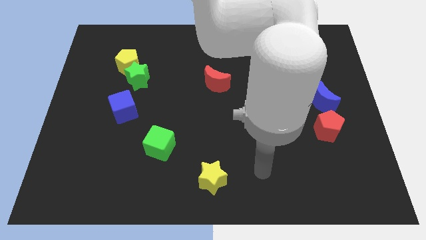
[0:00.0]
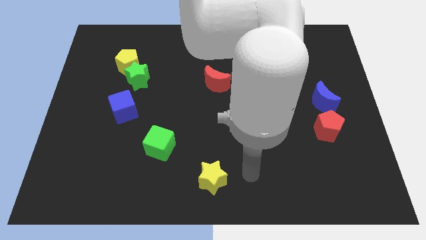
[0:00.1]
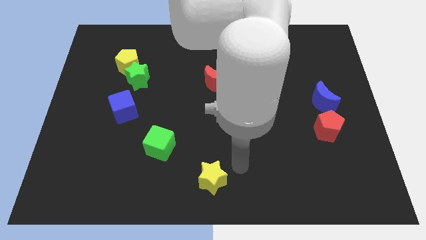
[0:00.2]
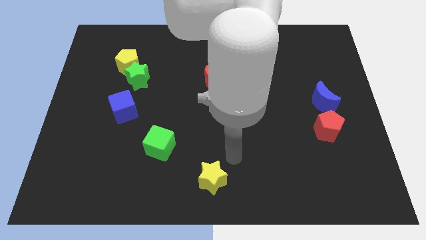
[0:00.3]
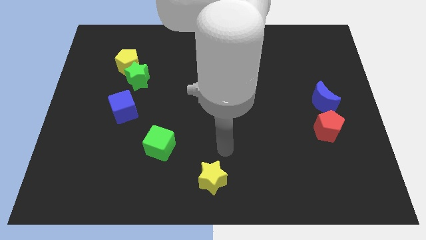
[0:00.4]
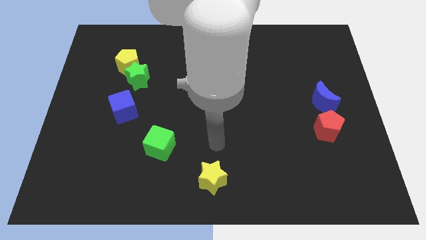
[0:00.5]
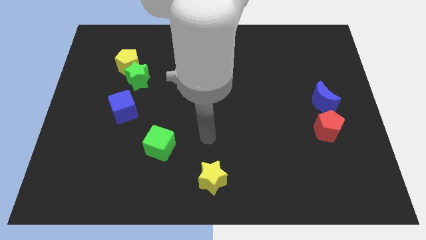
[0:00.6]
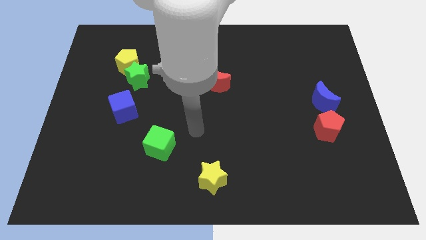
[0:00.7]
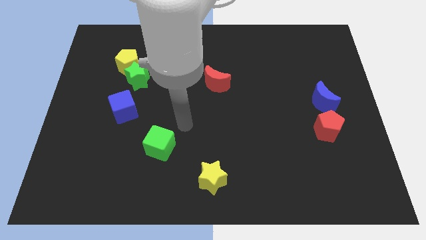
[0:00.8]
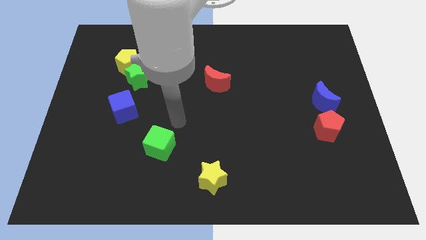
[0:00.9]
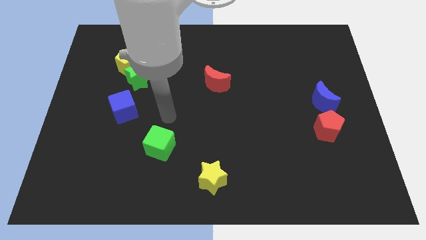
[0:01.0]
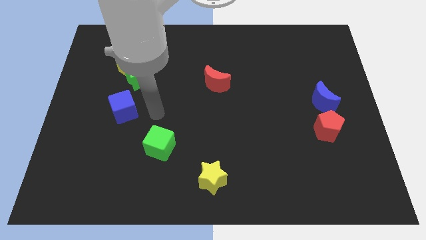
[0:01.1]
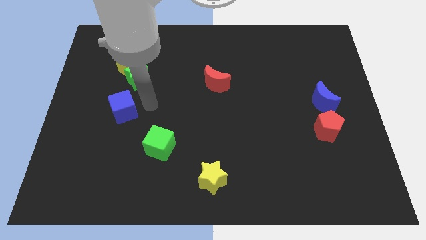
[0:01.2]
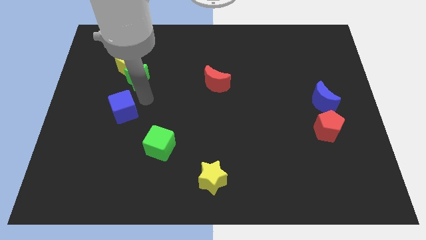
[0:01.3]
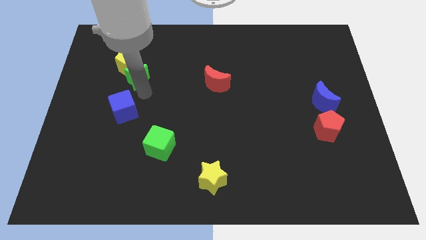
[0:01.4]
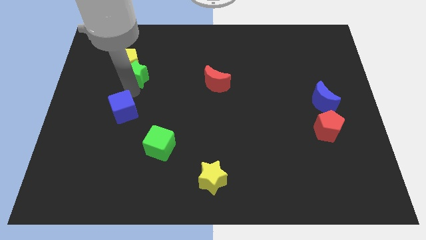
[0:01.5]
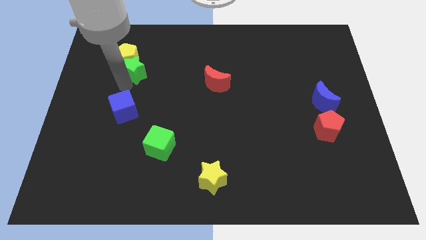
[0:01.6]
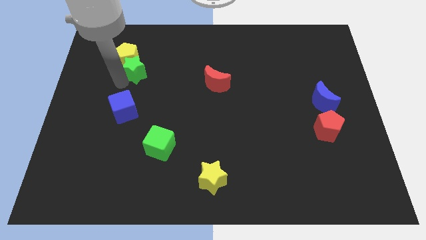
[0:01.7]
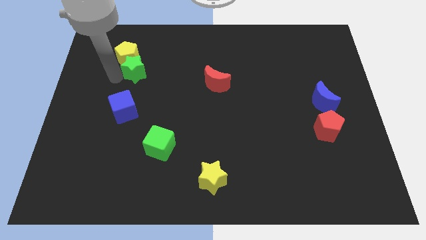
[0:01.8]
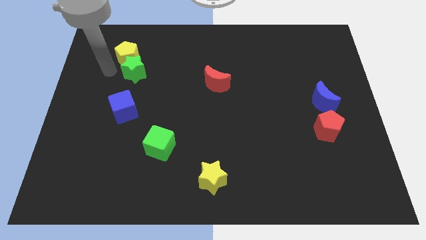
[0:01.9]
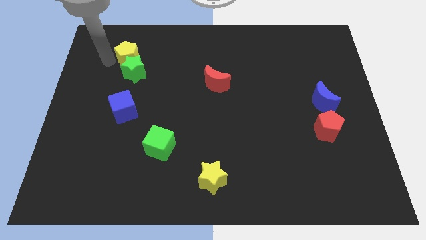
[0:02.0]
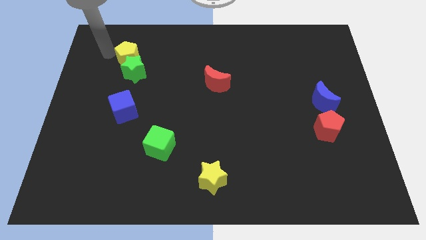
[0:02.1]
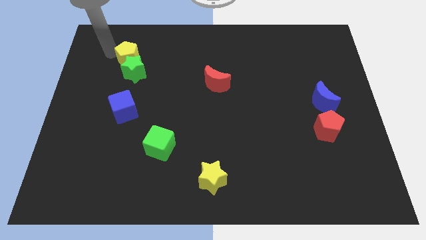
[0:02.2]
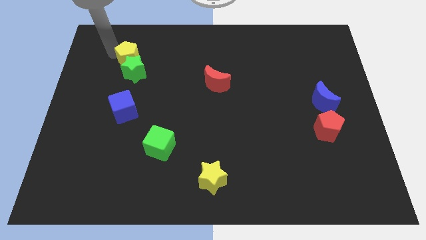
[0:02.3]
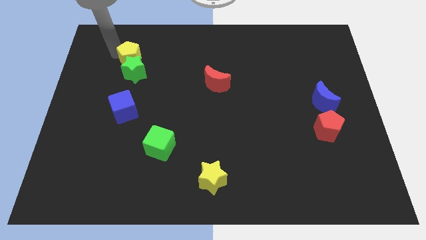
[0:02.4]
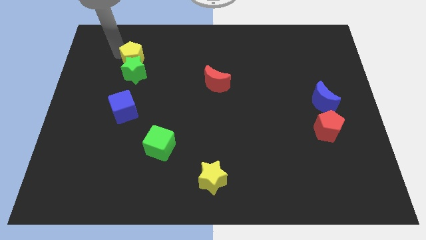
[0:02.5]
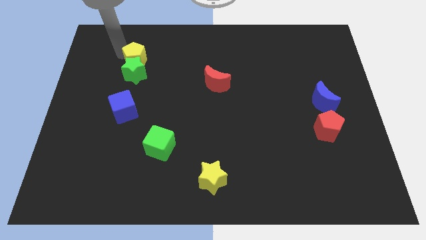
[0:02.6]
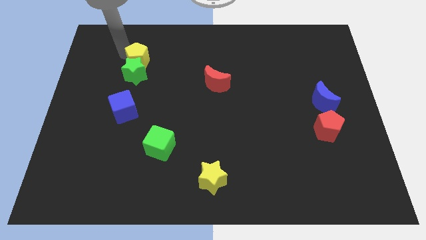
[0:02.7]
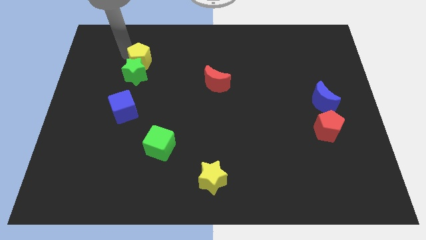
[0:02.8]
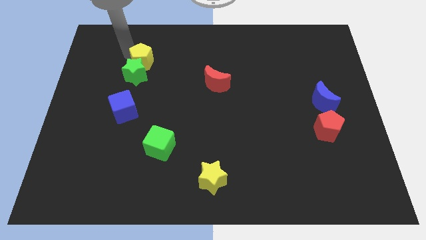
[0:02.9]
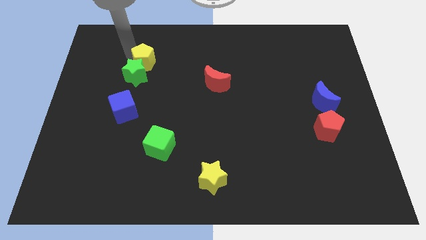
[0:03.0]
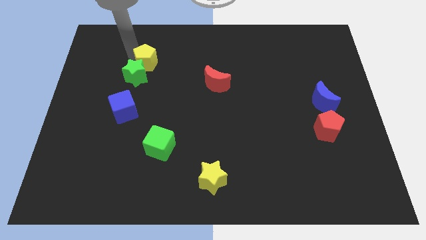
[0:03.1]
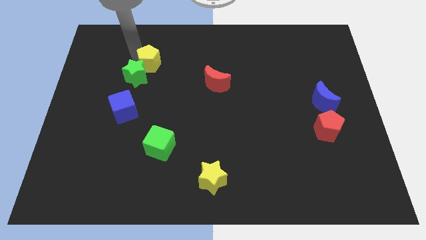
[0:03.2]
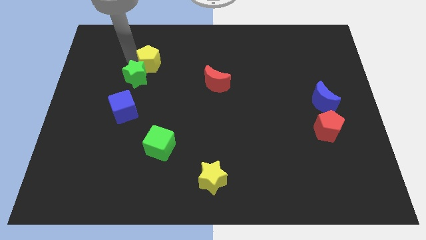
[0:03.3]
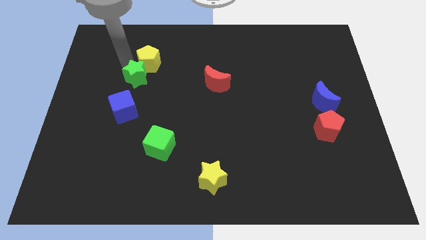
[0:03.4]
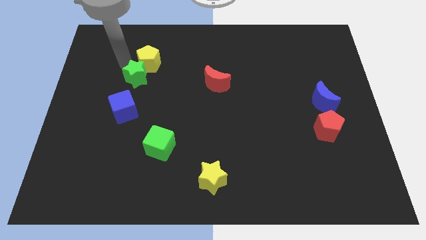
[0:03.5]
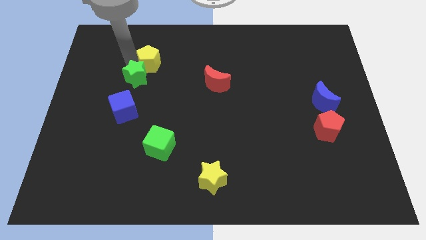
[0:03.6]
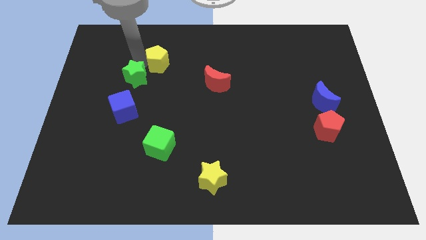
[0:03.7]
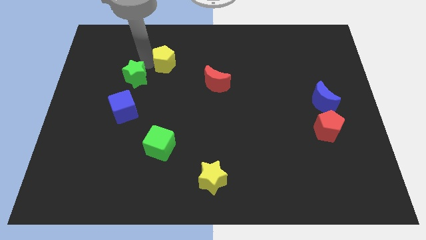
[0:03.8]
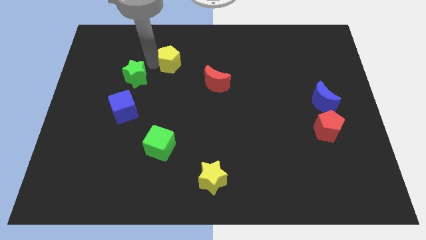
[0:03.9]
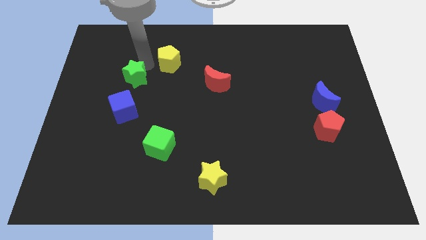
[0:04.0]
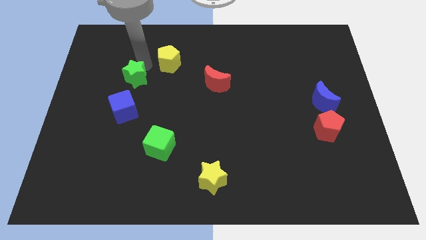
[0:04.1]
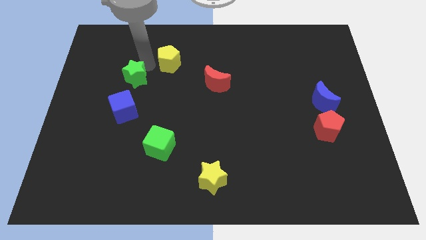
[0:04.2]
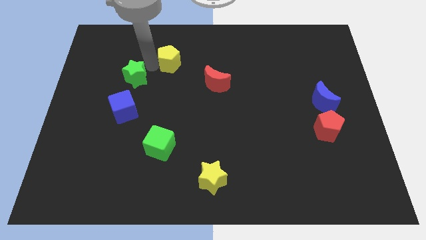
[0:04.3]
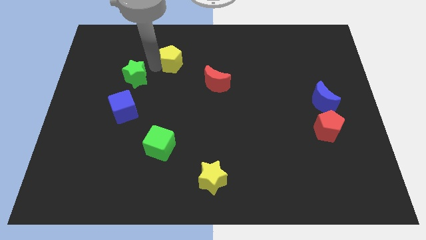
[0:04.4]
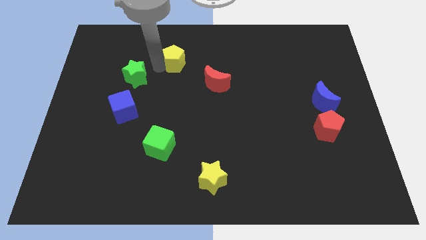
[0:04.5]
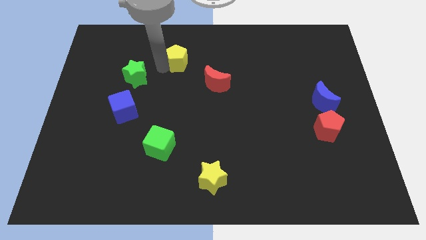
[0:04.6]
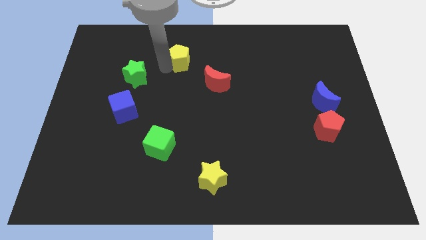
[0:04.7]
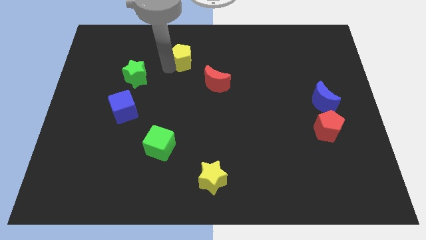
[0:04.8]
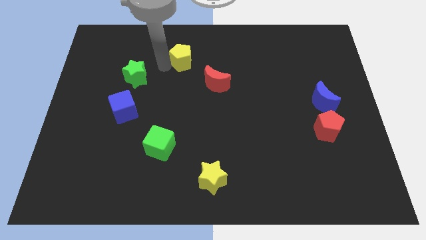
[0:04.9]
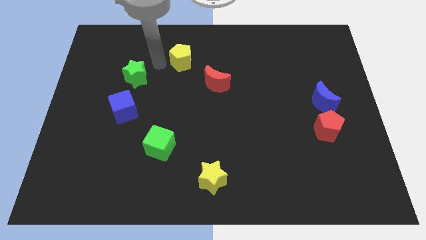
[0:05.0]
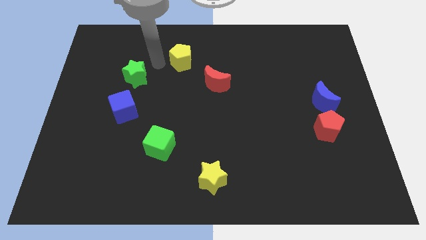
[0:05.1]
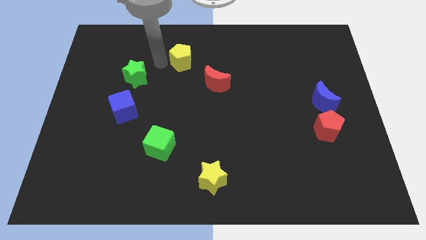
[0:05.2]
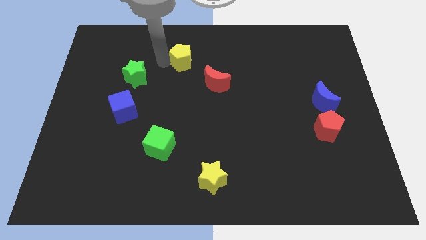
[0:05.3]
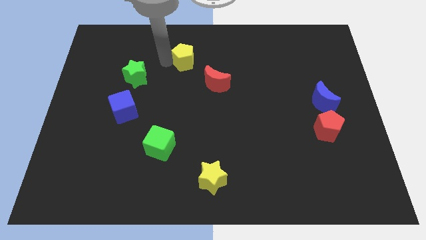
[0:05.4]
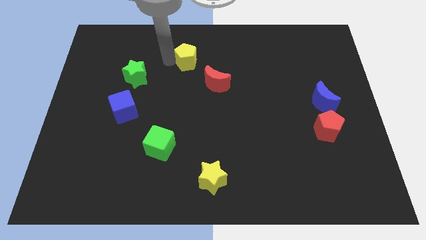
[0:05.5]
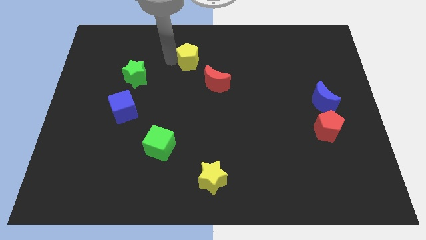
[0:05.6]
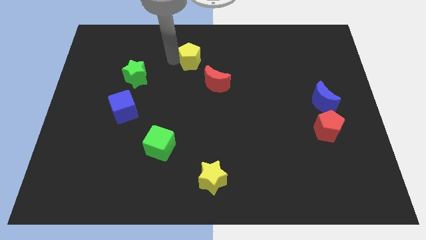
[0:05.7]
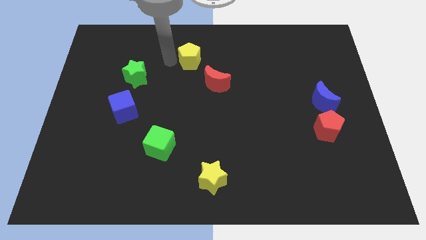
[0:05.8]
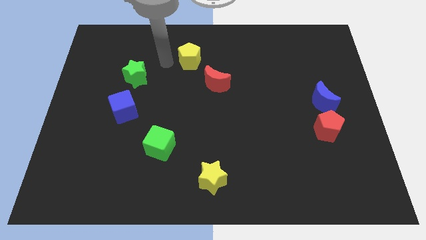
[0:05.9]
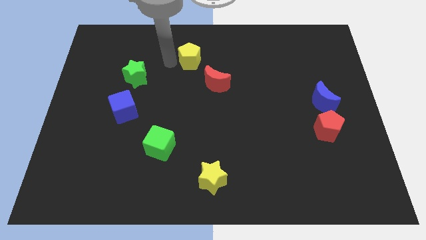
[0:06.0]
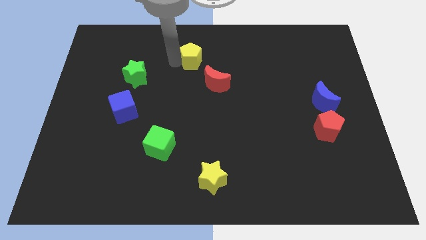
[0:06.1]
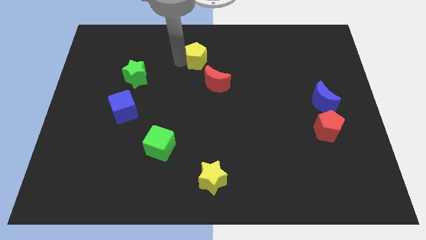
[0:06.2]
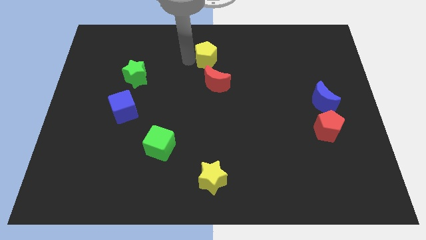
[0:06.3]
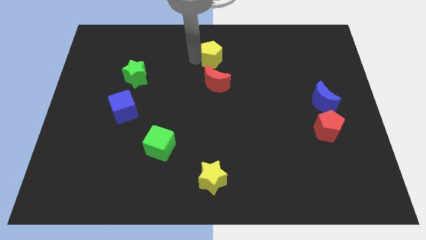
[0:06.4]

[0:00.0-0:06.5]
slide the yellow pentagon right

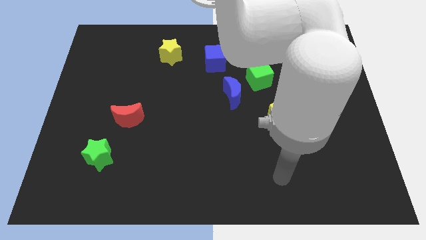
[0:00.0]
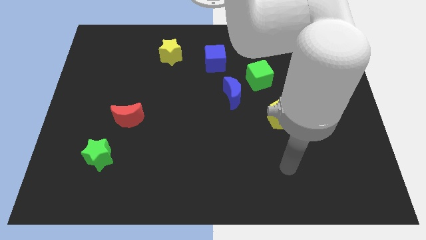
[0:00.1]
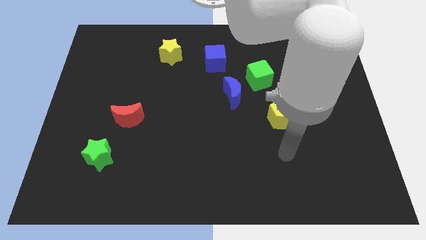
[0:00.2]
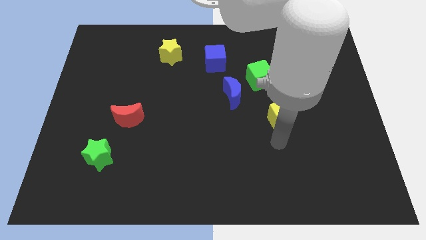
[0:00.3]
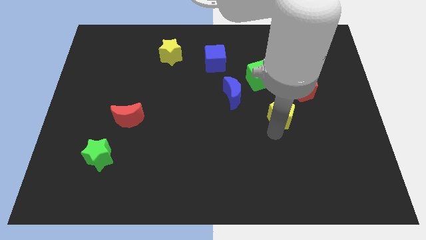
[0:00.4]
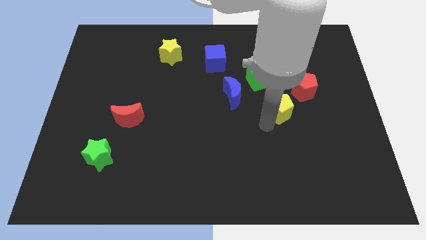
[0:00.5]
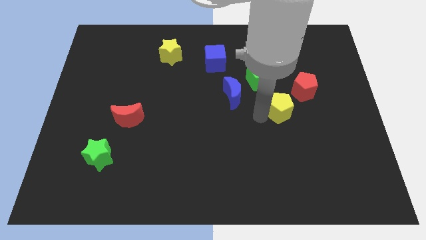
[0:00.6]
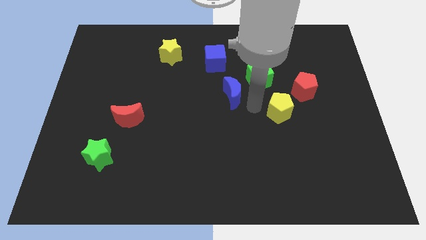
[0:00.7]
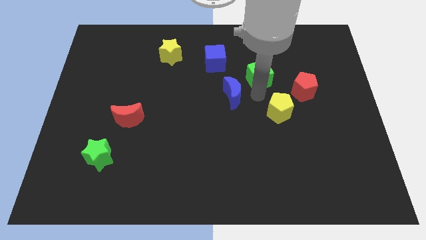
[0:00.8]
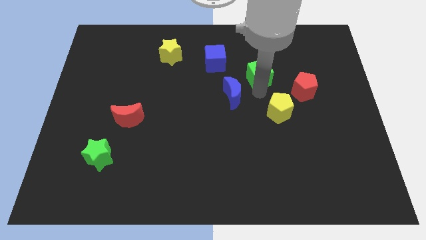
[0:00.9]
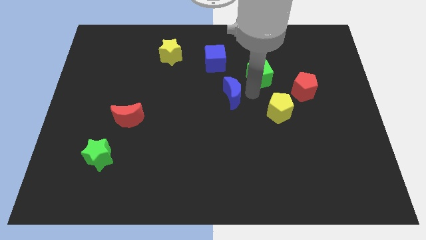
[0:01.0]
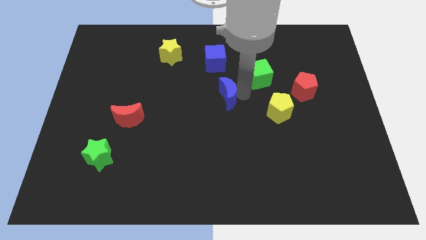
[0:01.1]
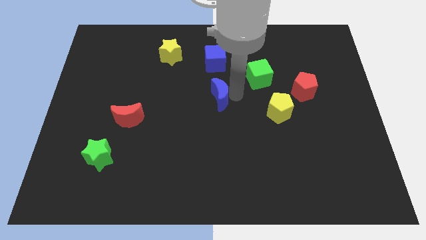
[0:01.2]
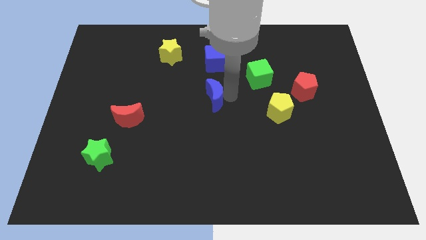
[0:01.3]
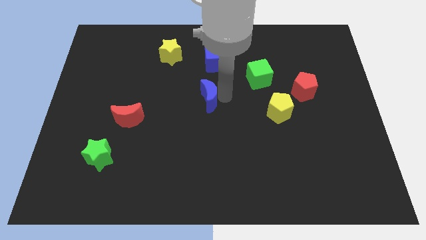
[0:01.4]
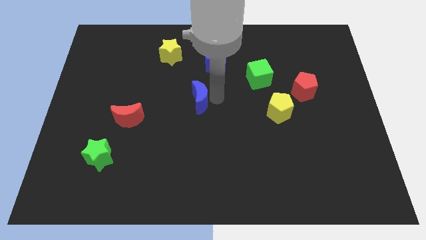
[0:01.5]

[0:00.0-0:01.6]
push the blue moon somewhat to the left
